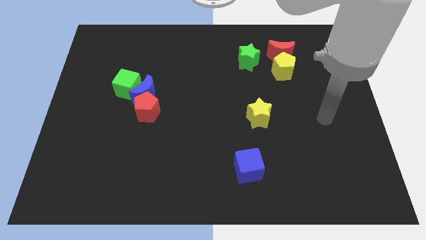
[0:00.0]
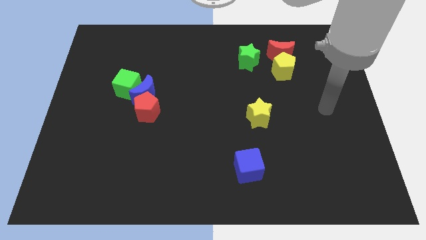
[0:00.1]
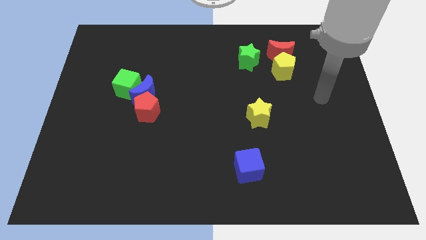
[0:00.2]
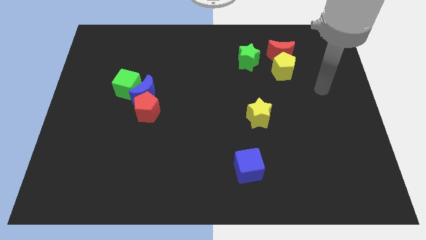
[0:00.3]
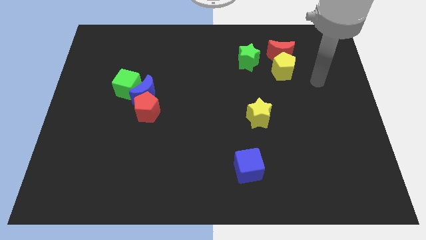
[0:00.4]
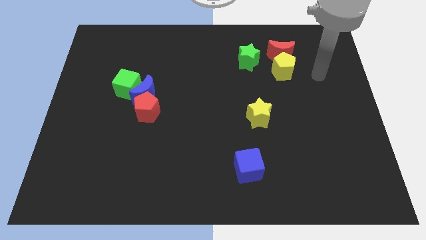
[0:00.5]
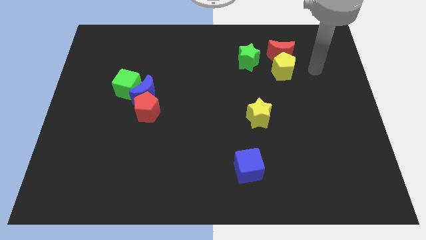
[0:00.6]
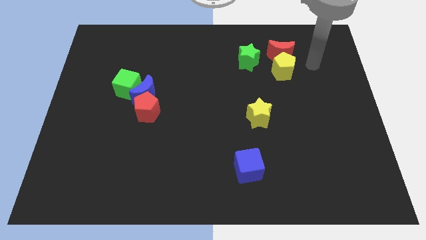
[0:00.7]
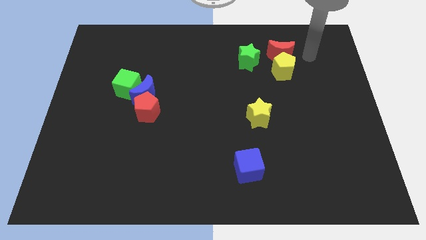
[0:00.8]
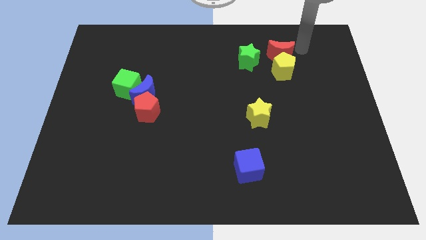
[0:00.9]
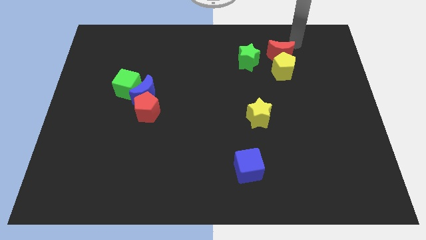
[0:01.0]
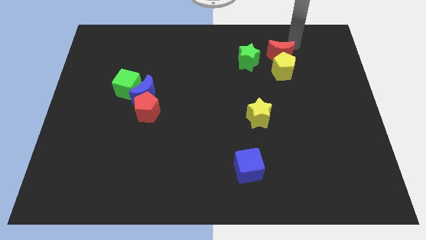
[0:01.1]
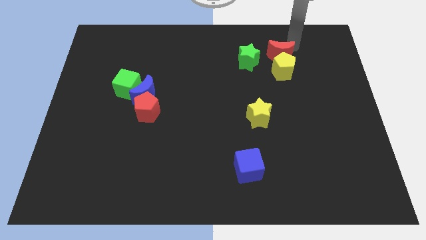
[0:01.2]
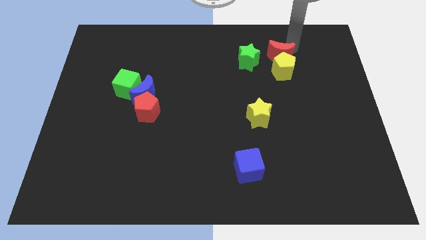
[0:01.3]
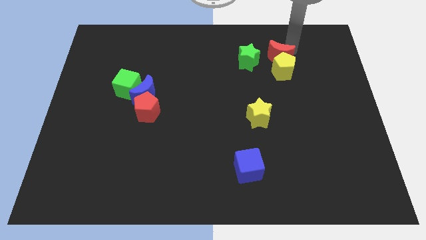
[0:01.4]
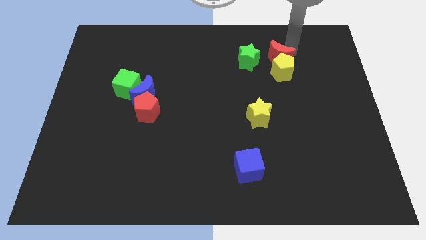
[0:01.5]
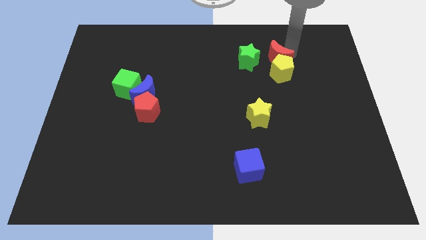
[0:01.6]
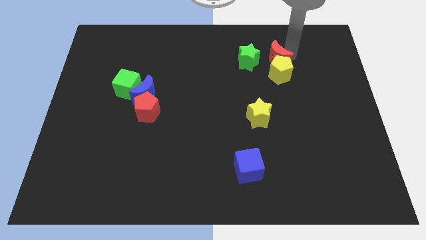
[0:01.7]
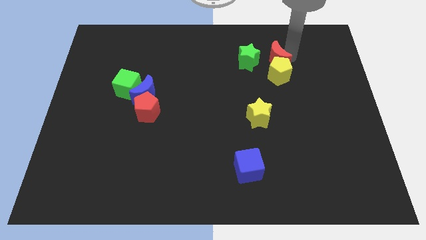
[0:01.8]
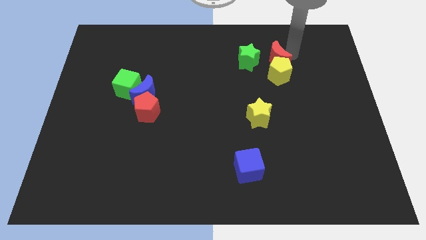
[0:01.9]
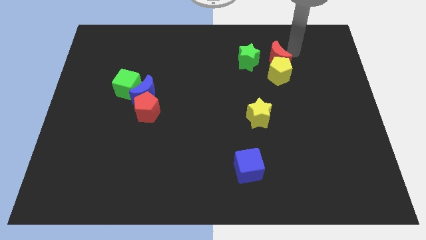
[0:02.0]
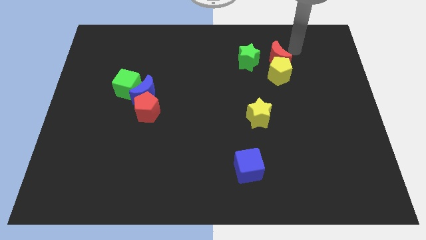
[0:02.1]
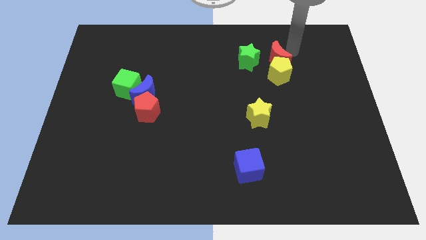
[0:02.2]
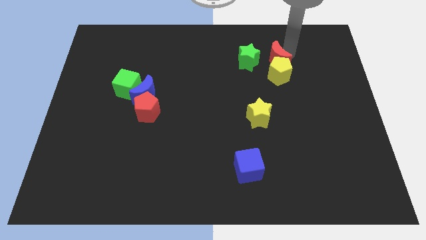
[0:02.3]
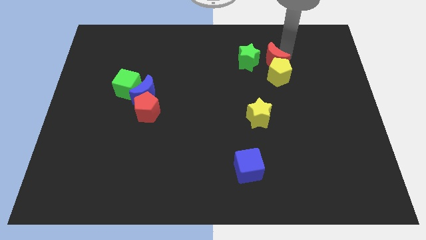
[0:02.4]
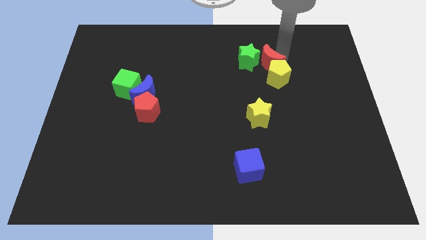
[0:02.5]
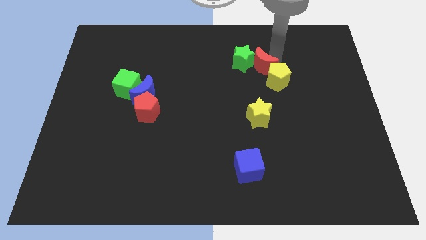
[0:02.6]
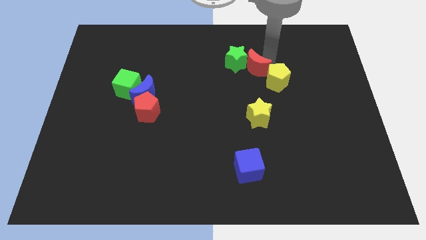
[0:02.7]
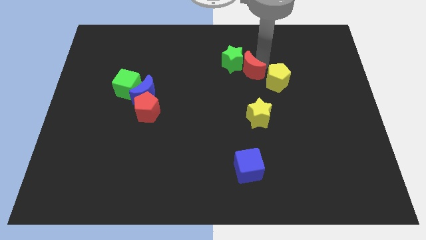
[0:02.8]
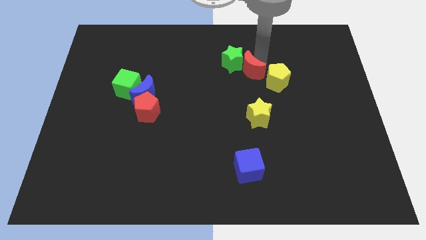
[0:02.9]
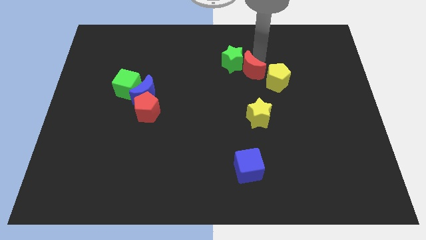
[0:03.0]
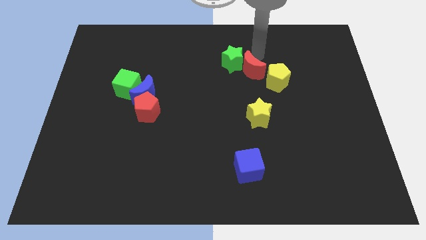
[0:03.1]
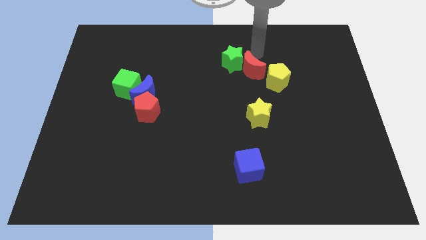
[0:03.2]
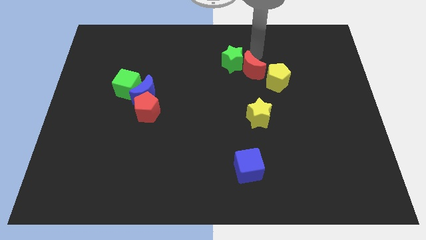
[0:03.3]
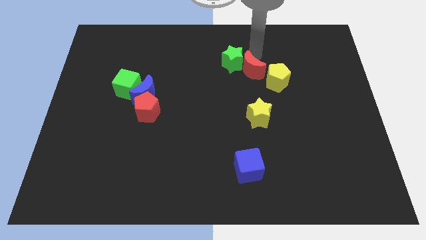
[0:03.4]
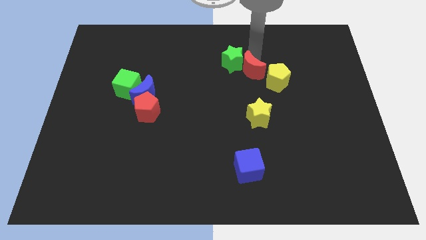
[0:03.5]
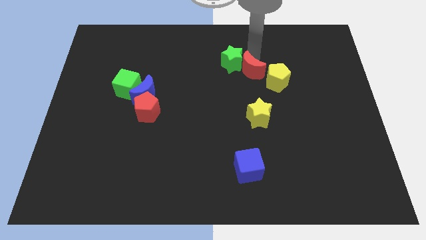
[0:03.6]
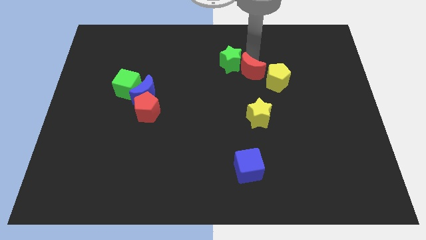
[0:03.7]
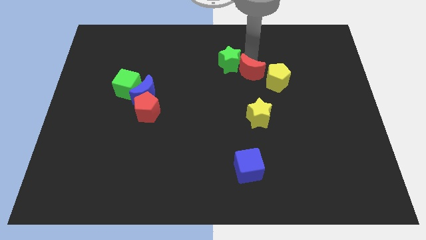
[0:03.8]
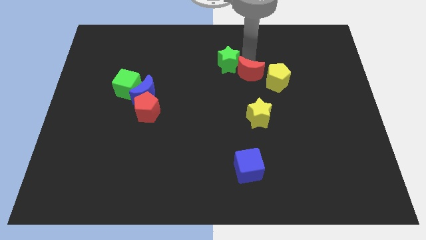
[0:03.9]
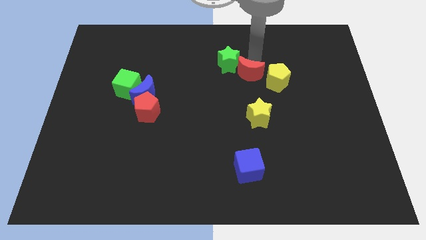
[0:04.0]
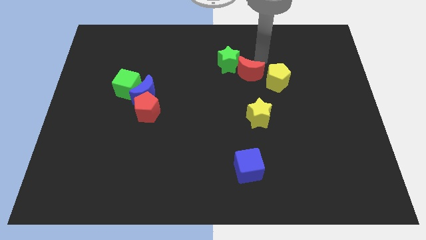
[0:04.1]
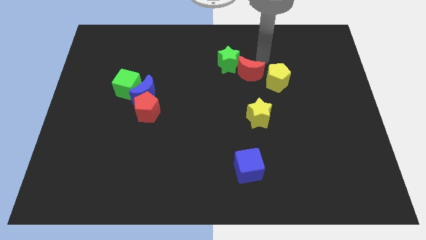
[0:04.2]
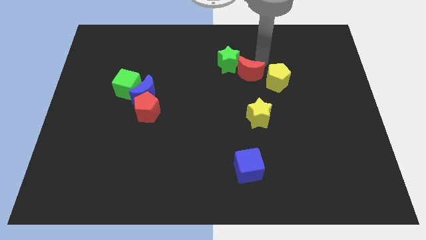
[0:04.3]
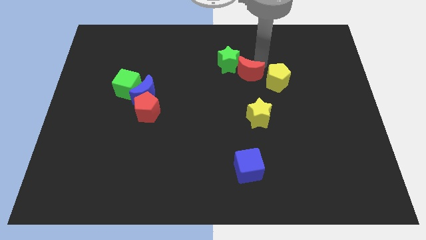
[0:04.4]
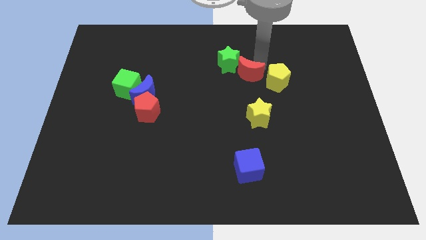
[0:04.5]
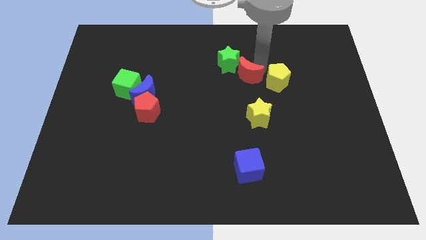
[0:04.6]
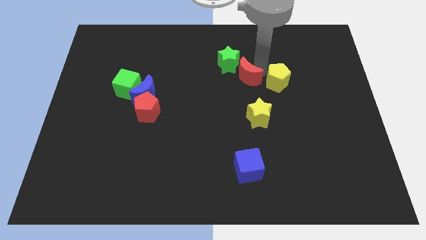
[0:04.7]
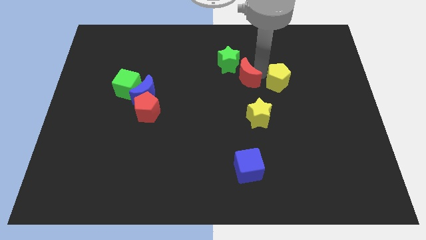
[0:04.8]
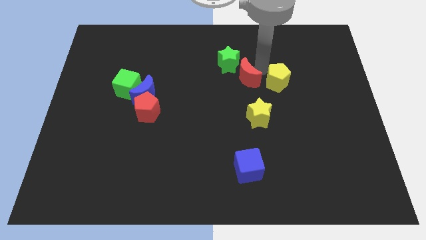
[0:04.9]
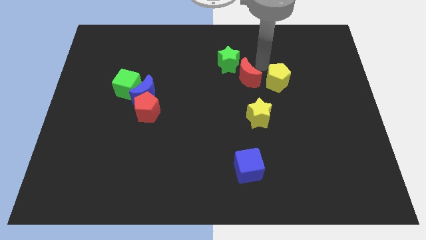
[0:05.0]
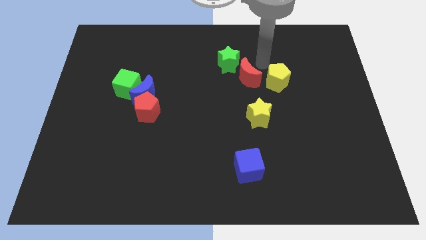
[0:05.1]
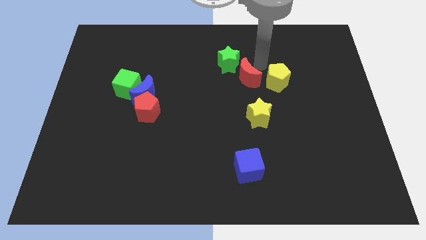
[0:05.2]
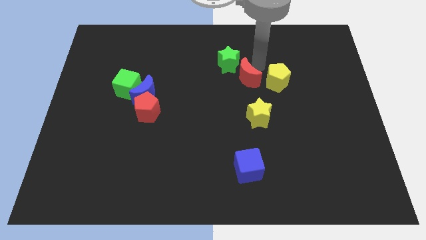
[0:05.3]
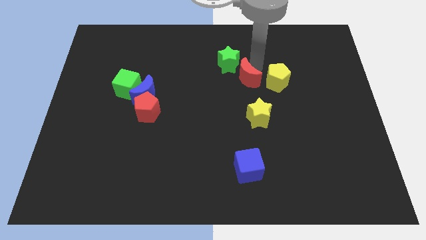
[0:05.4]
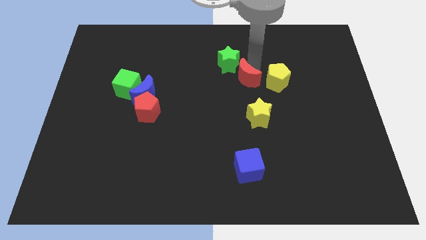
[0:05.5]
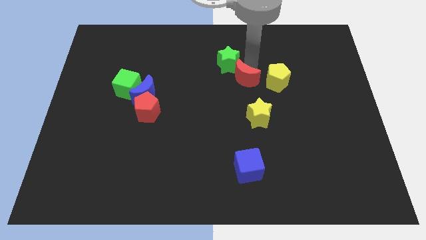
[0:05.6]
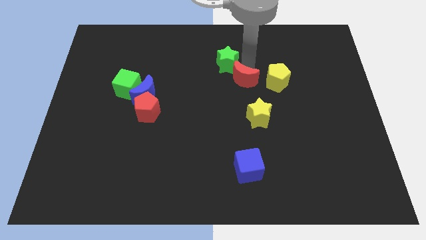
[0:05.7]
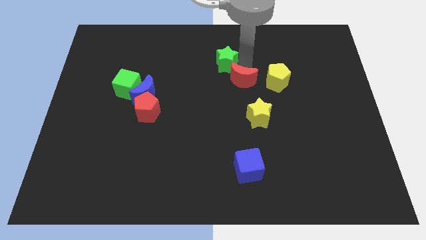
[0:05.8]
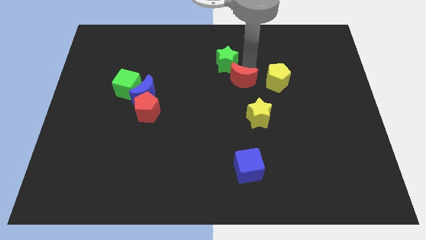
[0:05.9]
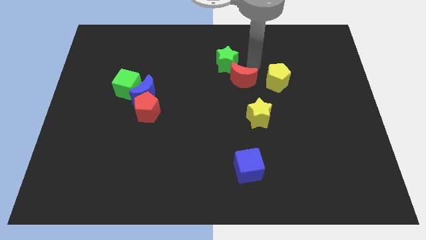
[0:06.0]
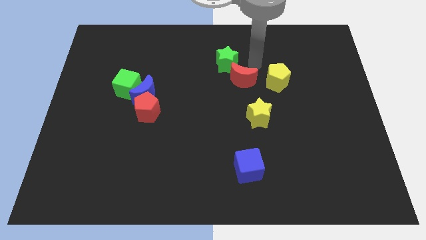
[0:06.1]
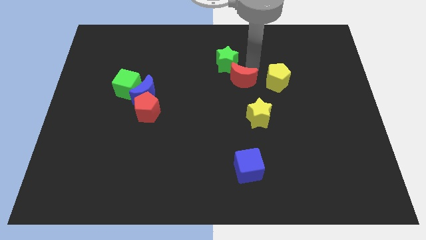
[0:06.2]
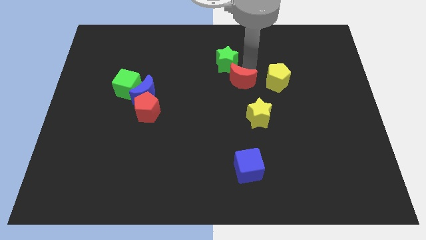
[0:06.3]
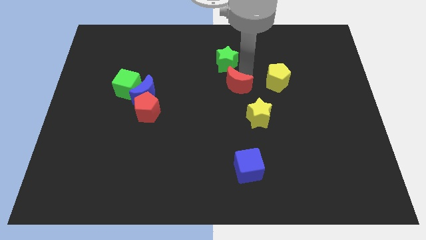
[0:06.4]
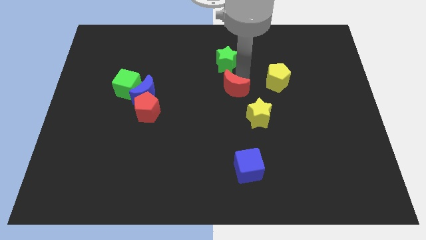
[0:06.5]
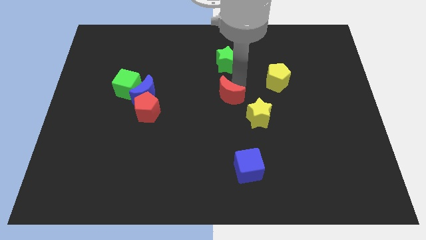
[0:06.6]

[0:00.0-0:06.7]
slide the red moon down and then left

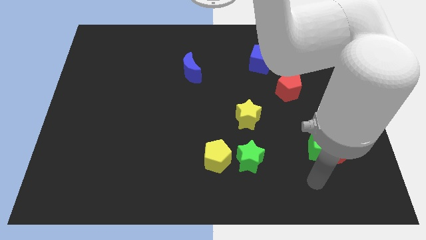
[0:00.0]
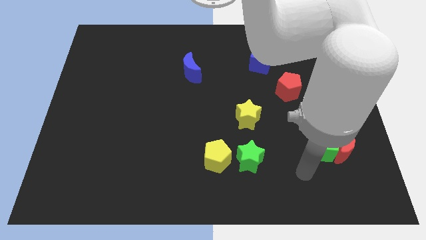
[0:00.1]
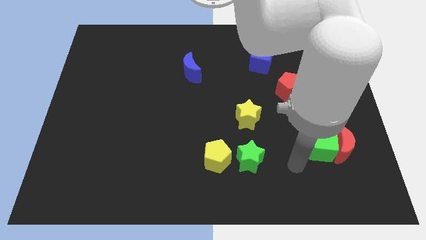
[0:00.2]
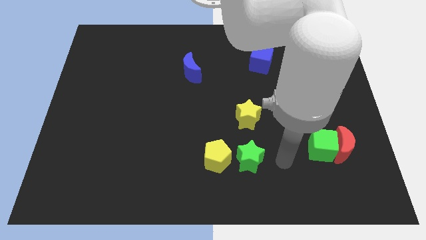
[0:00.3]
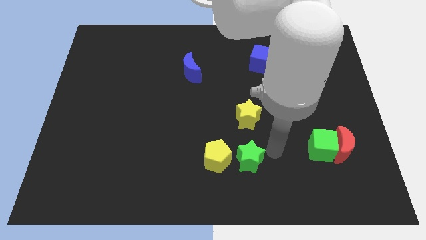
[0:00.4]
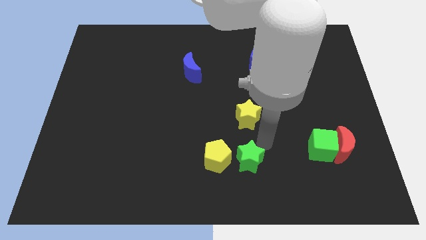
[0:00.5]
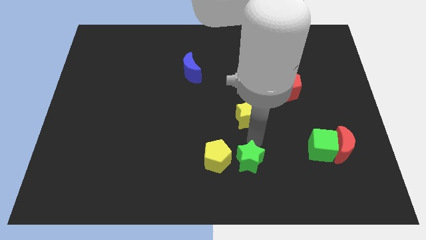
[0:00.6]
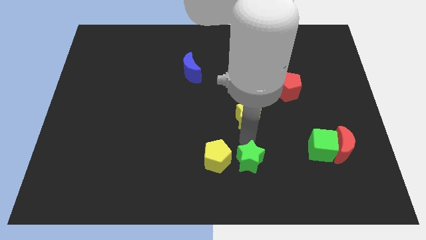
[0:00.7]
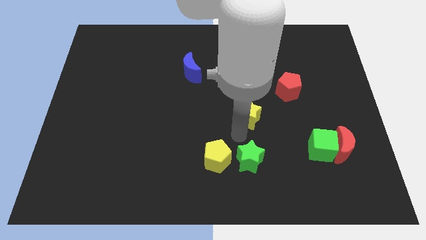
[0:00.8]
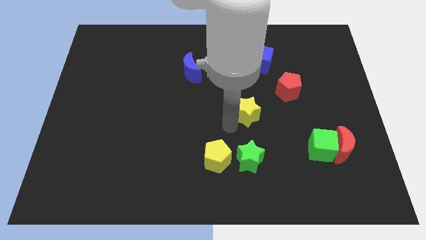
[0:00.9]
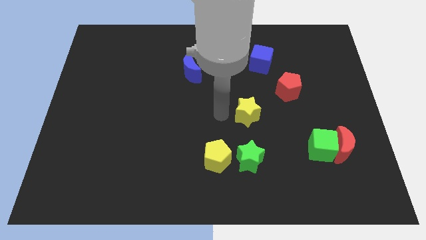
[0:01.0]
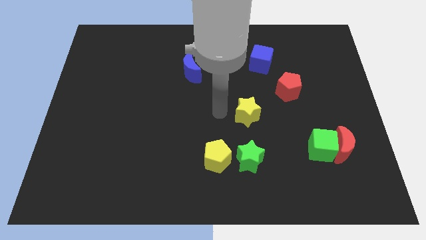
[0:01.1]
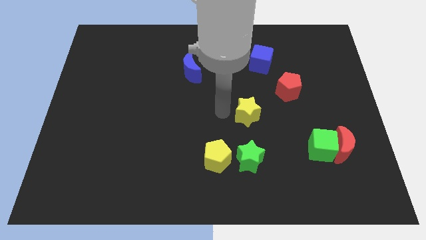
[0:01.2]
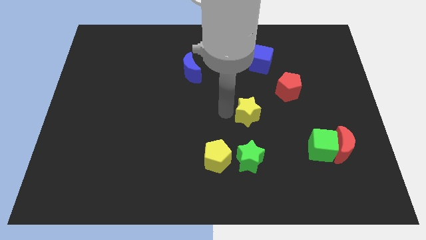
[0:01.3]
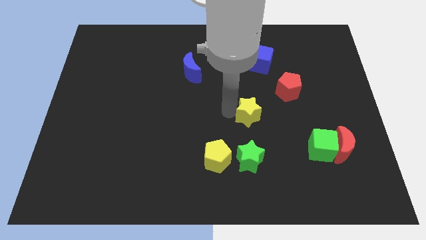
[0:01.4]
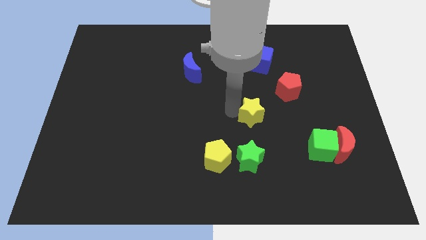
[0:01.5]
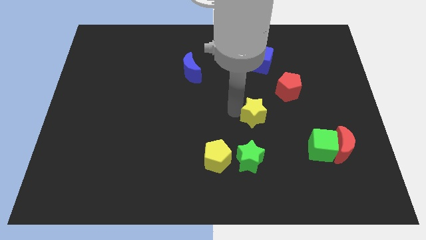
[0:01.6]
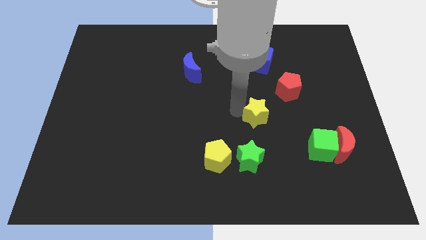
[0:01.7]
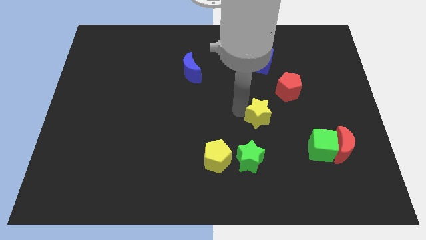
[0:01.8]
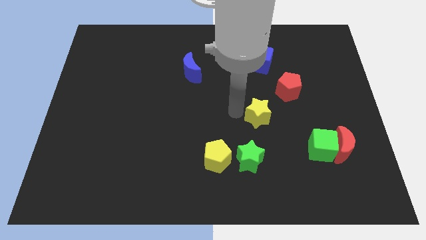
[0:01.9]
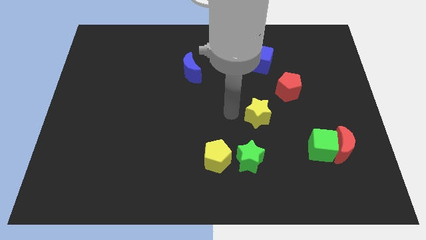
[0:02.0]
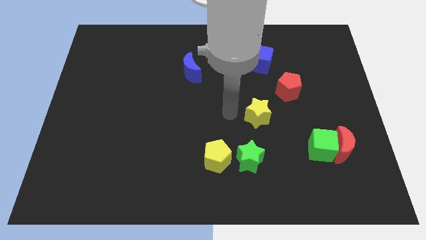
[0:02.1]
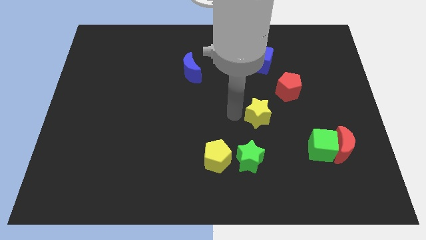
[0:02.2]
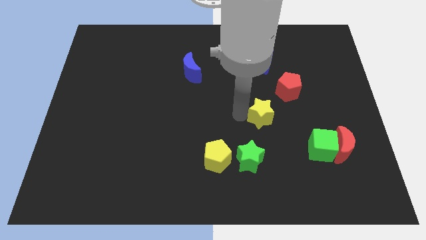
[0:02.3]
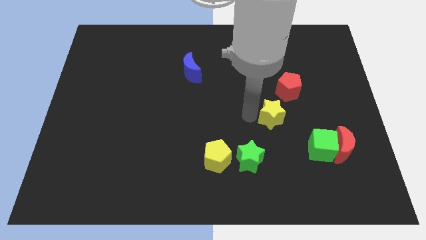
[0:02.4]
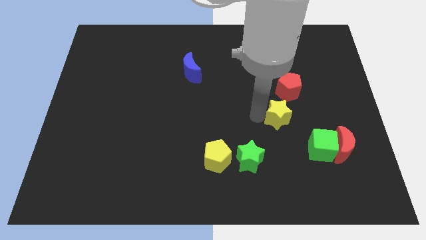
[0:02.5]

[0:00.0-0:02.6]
slightly slide the yellow star to the right
